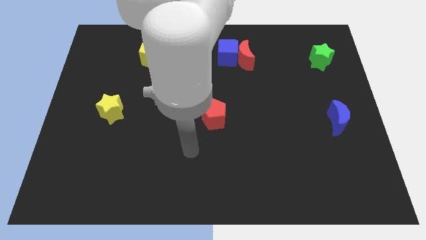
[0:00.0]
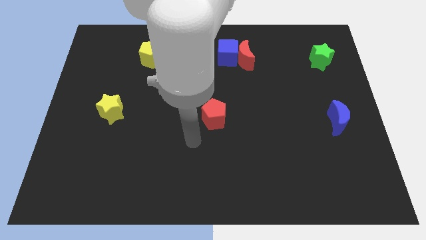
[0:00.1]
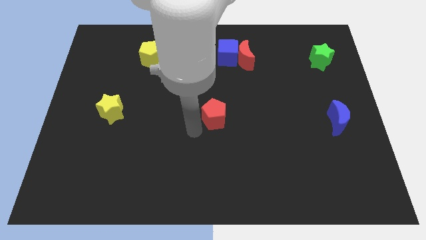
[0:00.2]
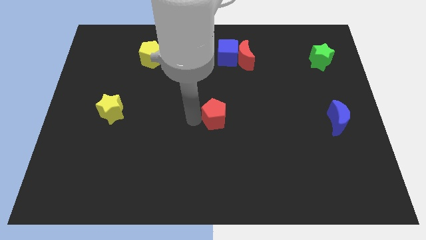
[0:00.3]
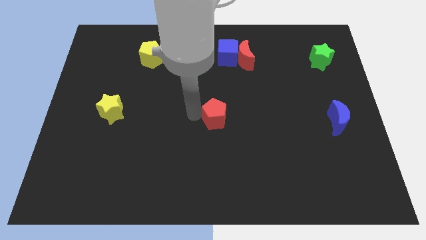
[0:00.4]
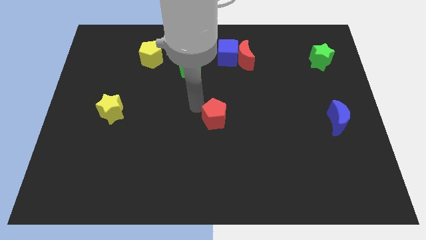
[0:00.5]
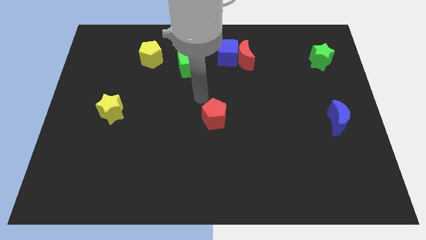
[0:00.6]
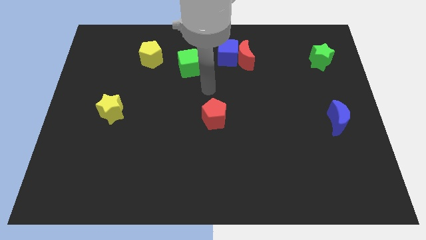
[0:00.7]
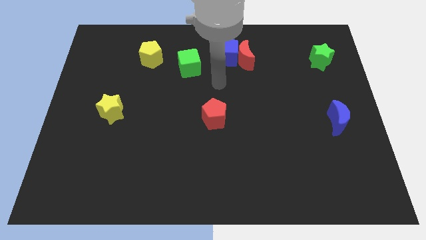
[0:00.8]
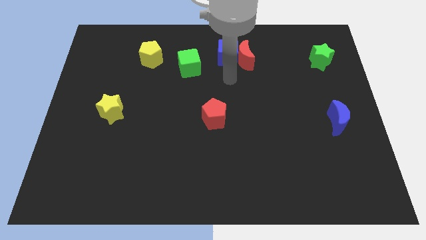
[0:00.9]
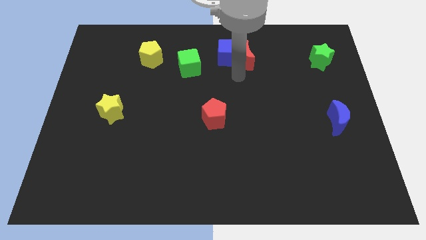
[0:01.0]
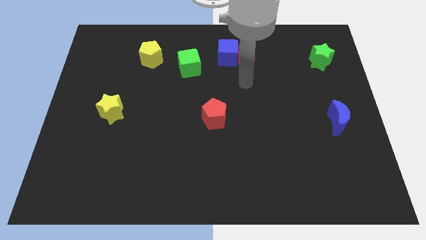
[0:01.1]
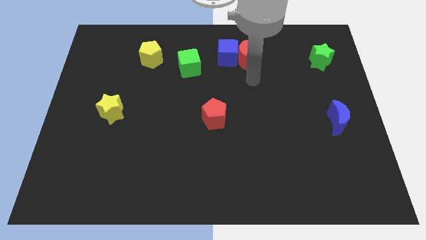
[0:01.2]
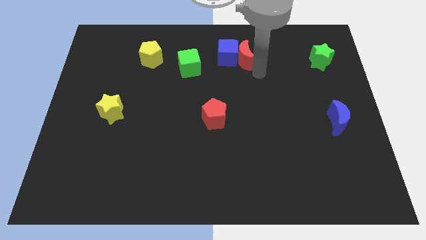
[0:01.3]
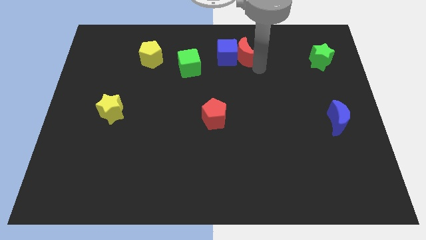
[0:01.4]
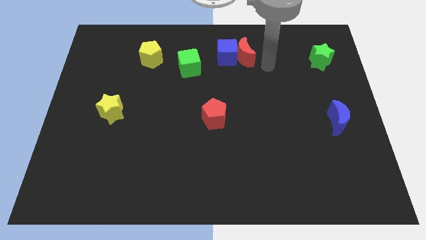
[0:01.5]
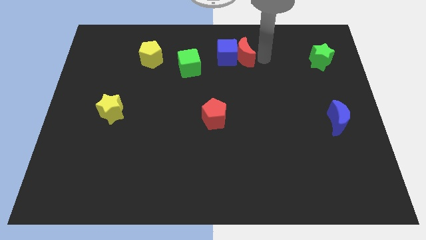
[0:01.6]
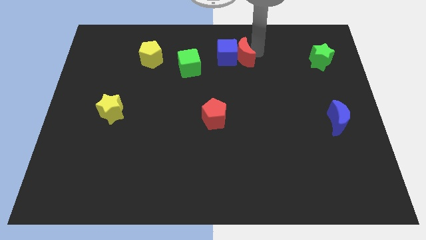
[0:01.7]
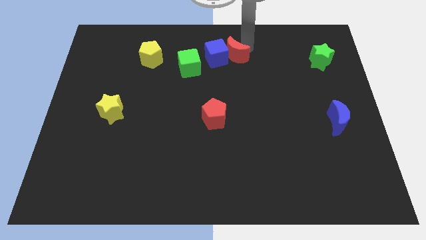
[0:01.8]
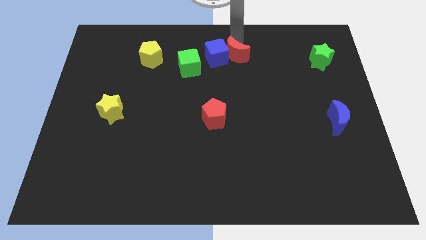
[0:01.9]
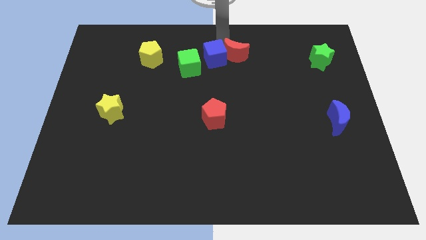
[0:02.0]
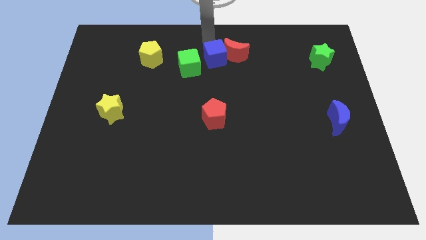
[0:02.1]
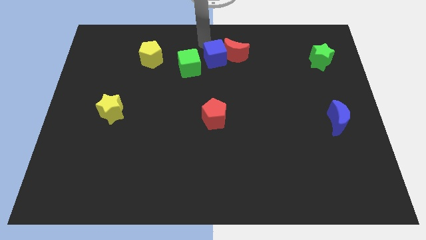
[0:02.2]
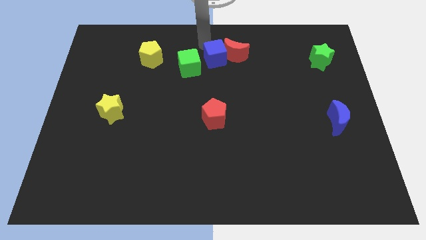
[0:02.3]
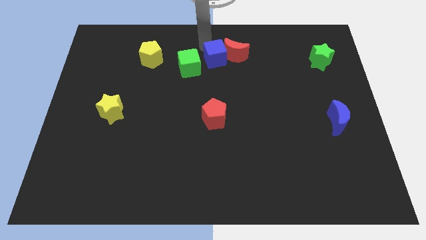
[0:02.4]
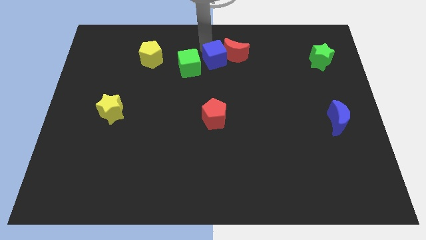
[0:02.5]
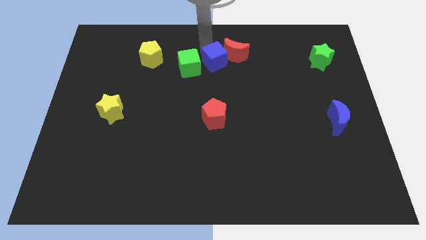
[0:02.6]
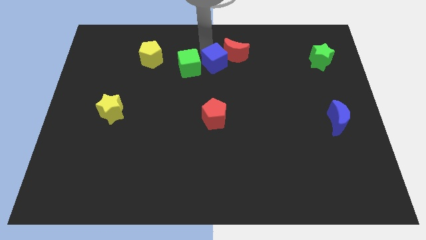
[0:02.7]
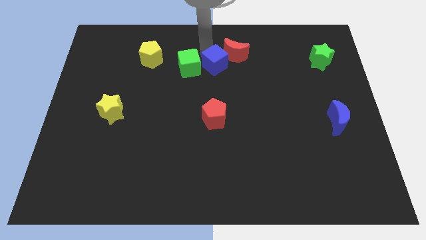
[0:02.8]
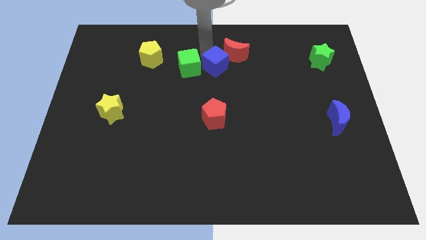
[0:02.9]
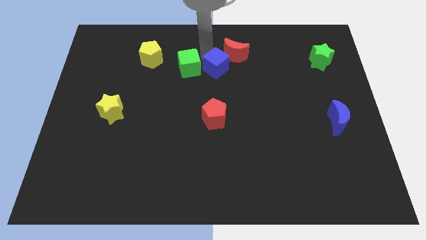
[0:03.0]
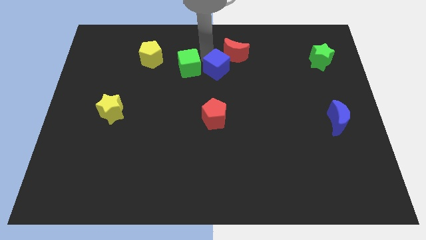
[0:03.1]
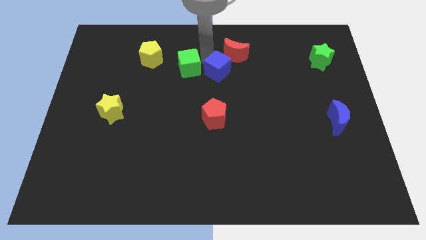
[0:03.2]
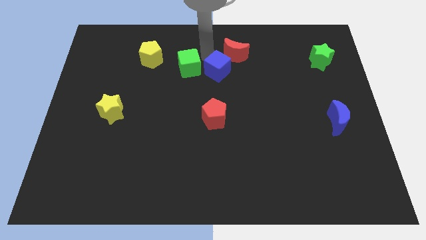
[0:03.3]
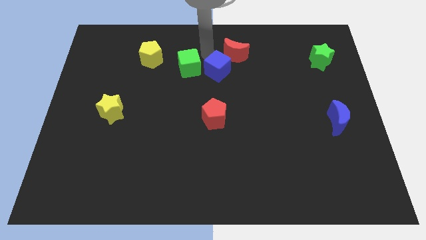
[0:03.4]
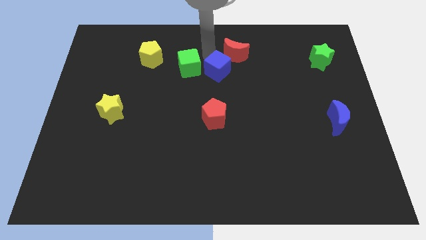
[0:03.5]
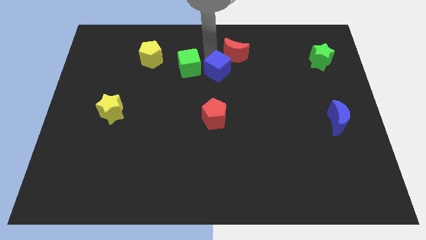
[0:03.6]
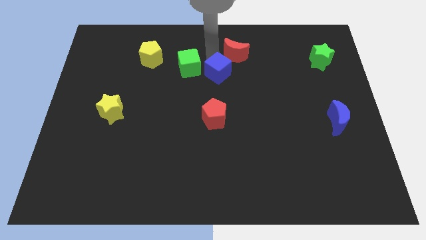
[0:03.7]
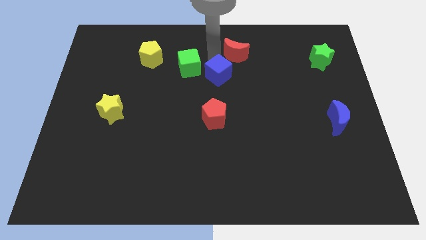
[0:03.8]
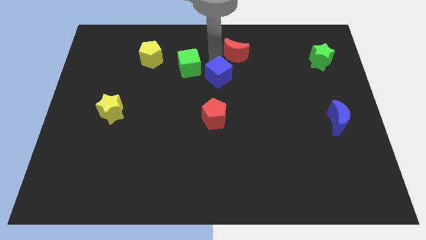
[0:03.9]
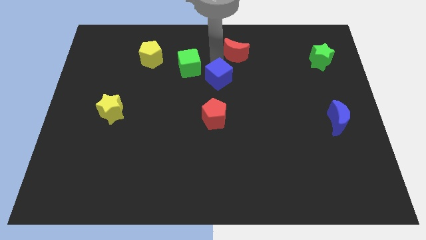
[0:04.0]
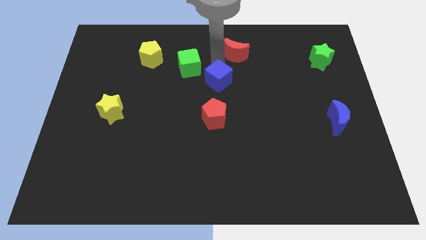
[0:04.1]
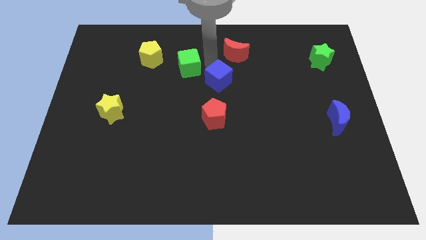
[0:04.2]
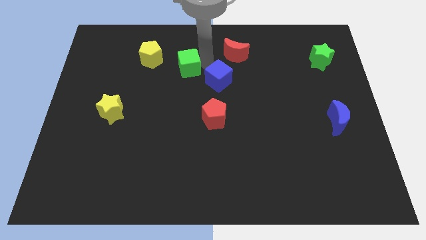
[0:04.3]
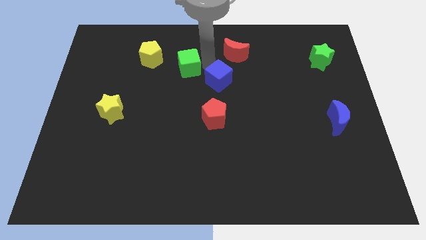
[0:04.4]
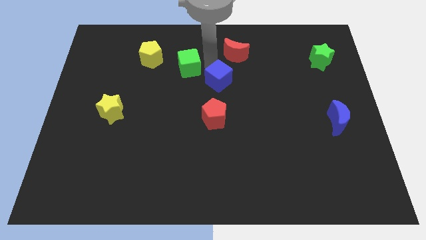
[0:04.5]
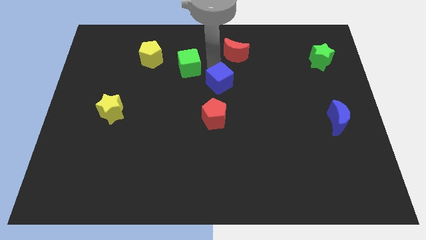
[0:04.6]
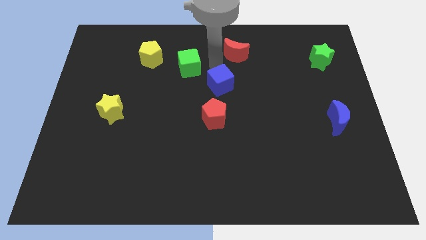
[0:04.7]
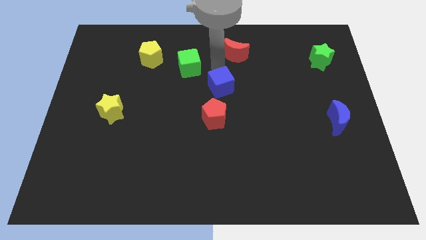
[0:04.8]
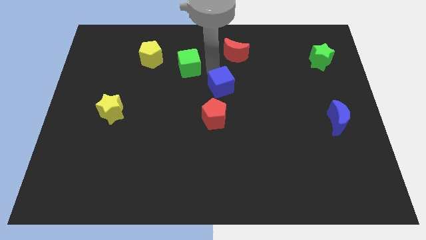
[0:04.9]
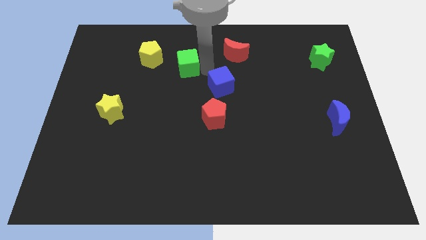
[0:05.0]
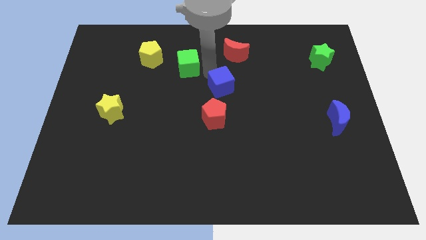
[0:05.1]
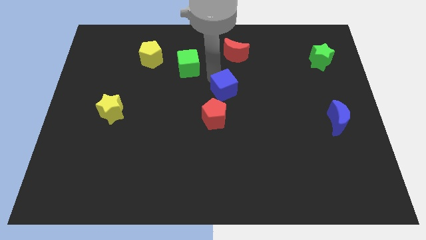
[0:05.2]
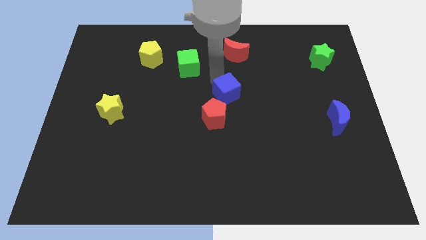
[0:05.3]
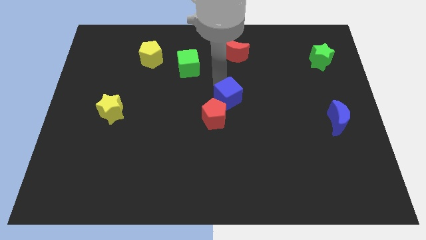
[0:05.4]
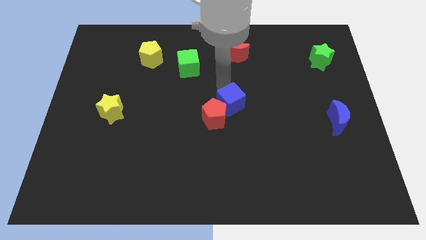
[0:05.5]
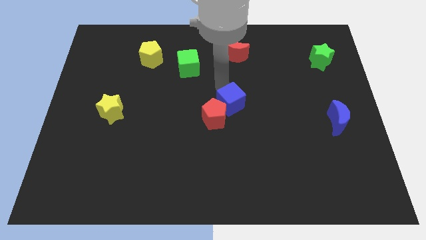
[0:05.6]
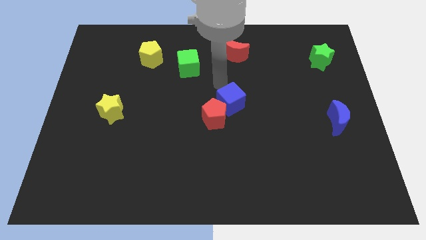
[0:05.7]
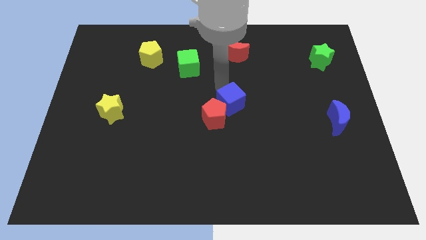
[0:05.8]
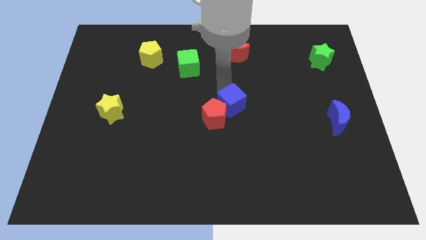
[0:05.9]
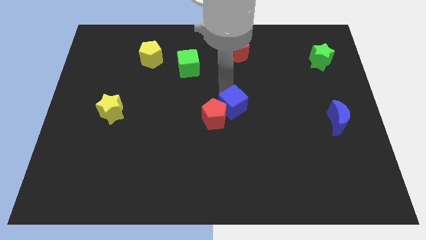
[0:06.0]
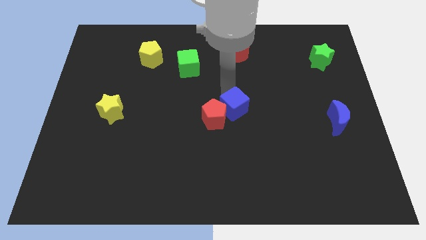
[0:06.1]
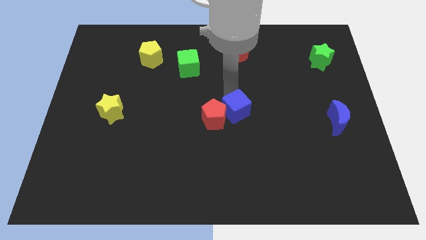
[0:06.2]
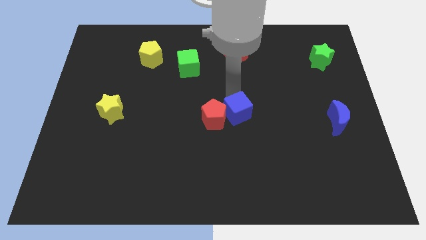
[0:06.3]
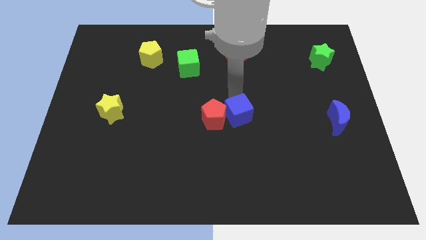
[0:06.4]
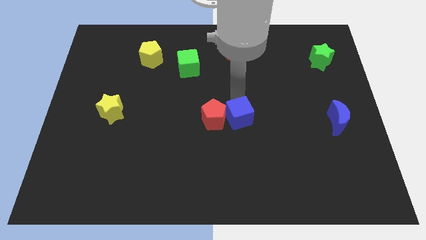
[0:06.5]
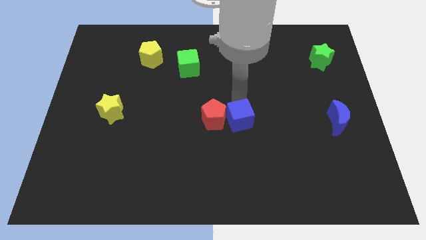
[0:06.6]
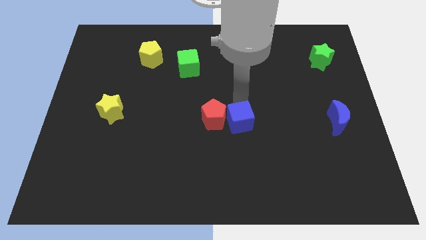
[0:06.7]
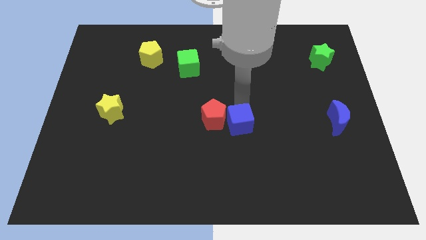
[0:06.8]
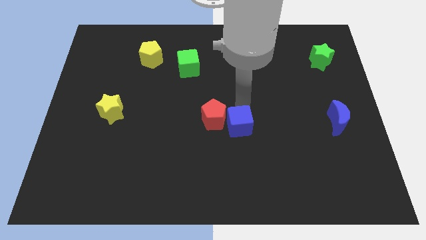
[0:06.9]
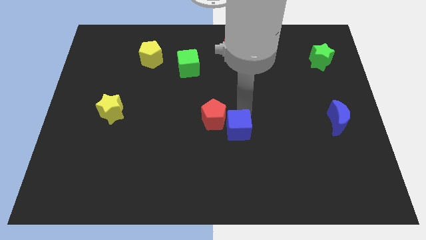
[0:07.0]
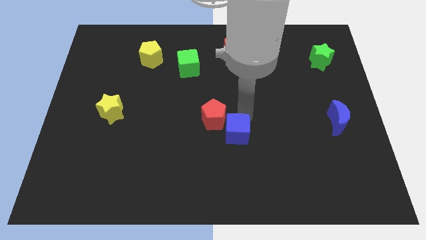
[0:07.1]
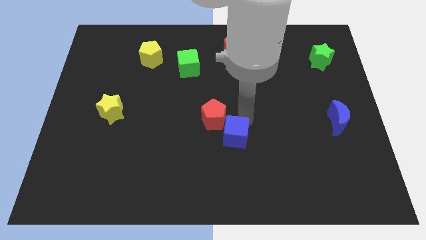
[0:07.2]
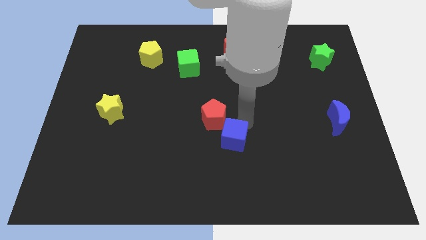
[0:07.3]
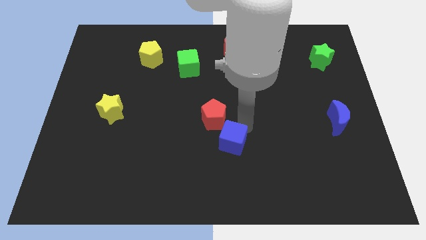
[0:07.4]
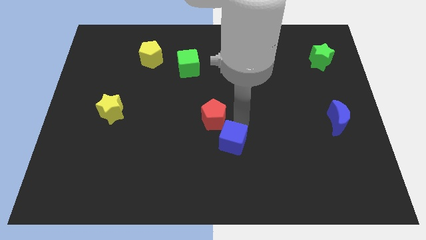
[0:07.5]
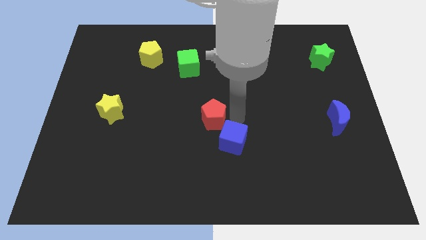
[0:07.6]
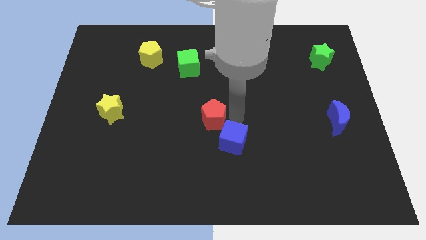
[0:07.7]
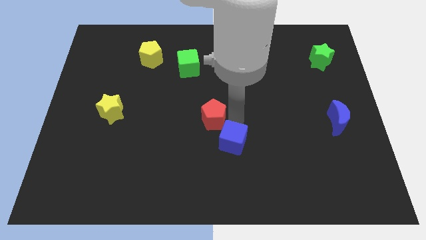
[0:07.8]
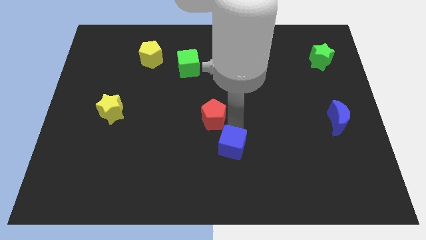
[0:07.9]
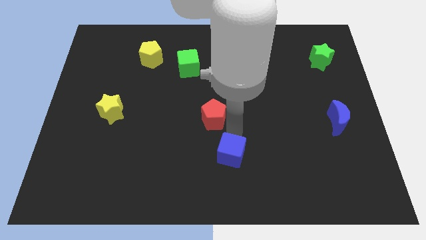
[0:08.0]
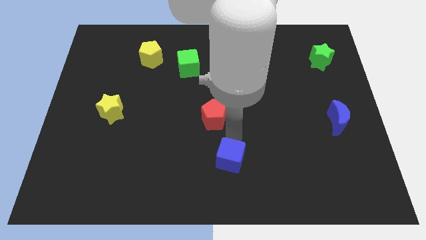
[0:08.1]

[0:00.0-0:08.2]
push the blue cube to the bottom
